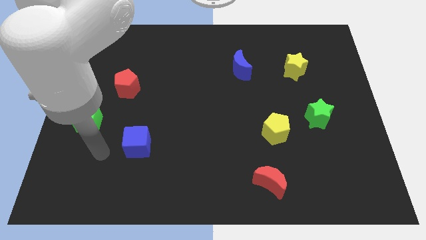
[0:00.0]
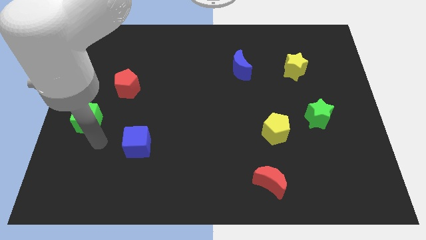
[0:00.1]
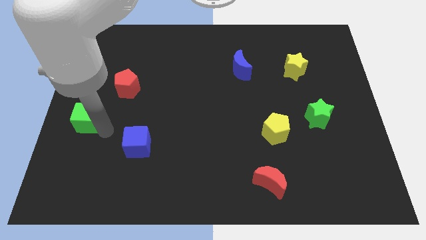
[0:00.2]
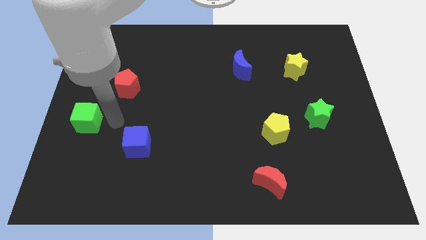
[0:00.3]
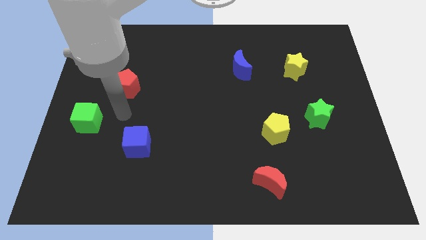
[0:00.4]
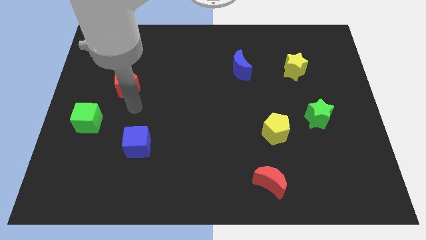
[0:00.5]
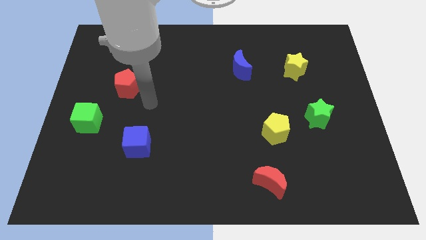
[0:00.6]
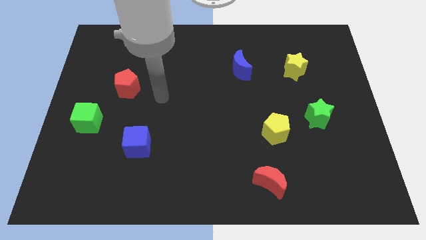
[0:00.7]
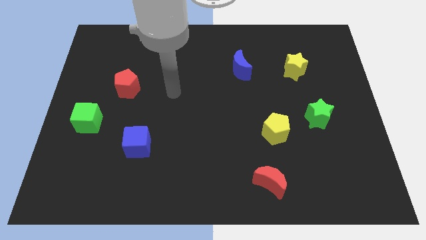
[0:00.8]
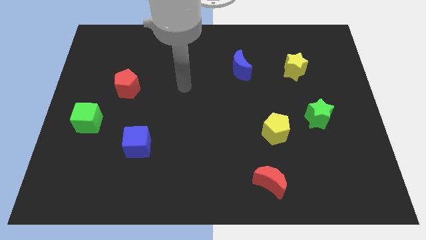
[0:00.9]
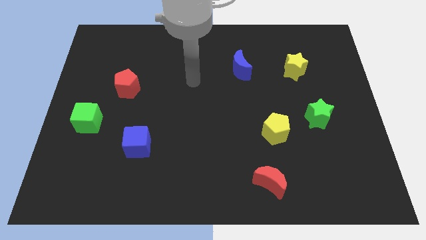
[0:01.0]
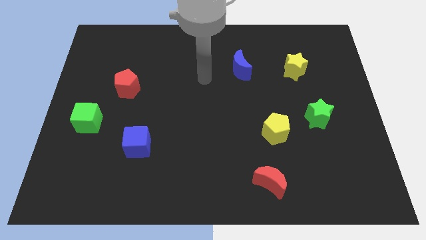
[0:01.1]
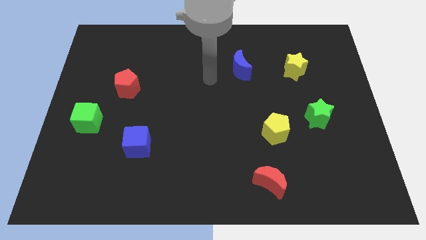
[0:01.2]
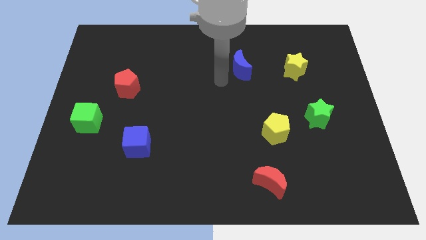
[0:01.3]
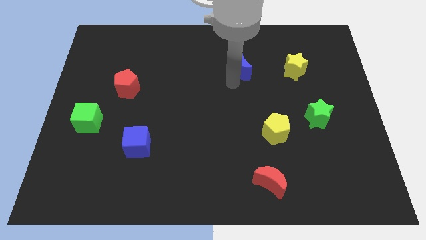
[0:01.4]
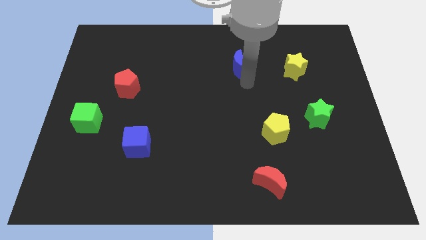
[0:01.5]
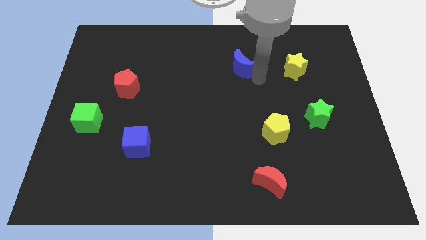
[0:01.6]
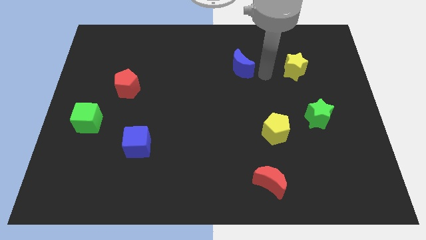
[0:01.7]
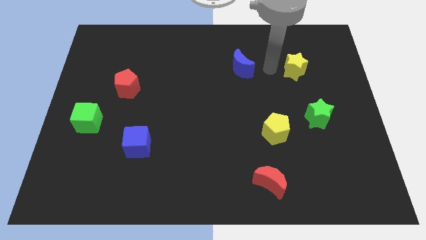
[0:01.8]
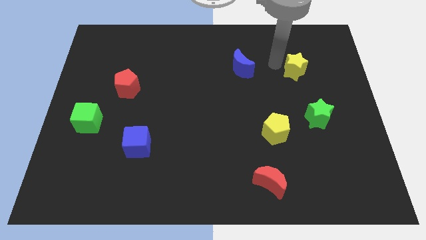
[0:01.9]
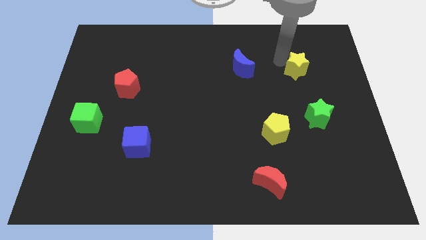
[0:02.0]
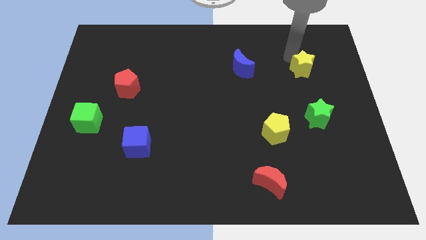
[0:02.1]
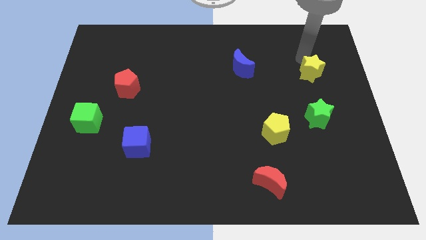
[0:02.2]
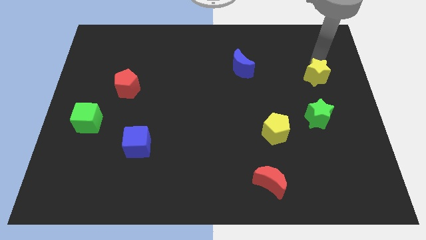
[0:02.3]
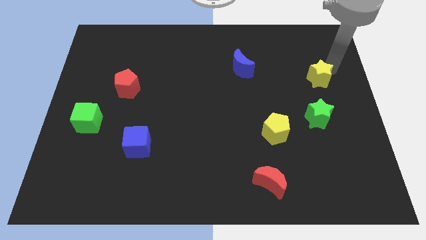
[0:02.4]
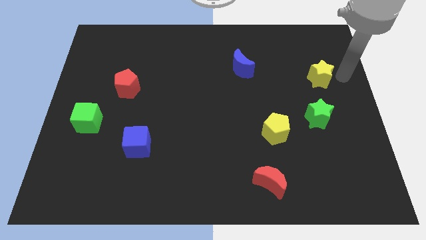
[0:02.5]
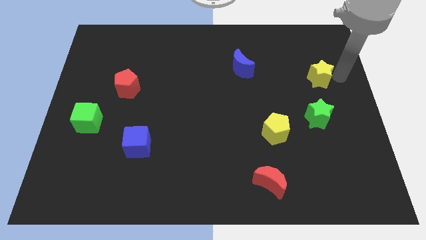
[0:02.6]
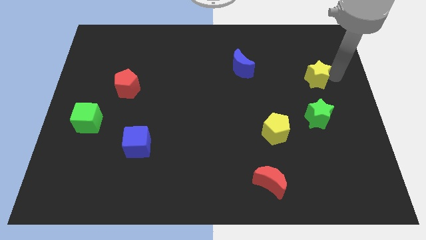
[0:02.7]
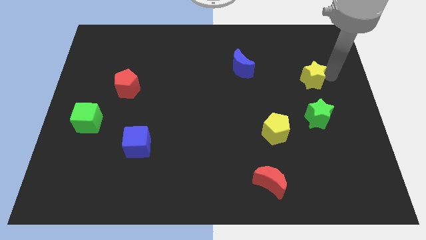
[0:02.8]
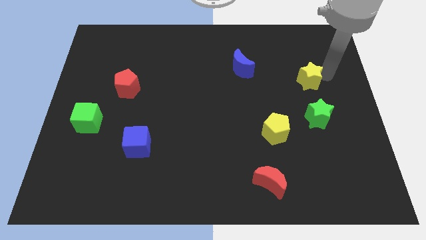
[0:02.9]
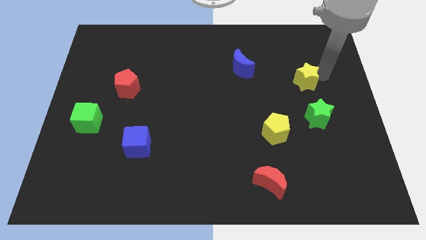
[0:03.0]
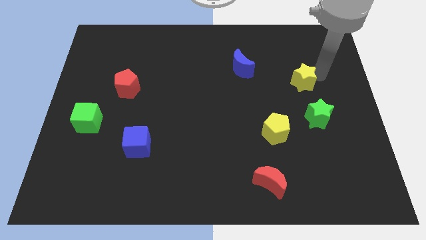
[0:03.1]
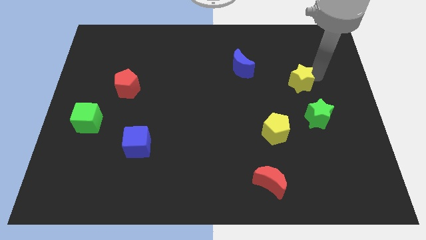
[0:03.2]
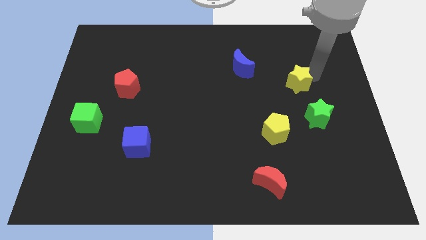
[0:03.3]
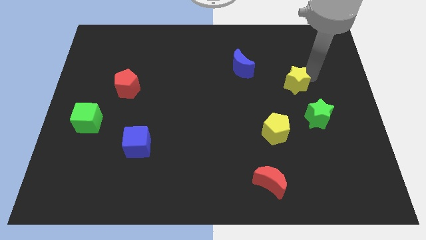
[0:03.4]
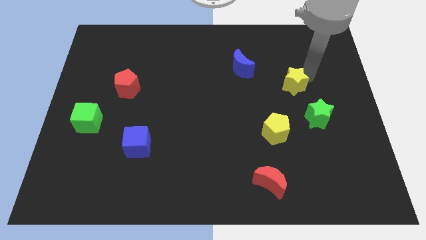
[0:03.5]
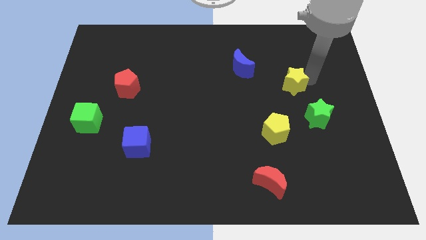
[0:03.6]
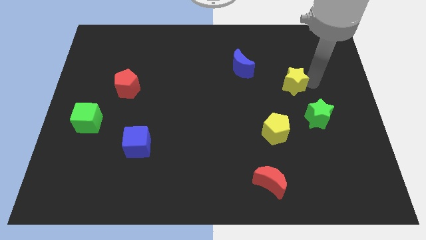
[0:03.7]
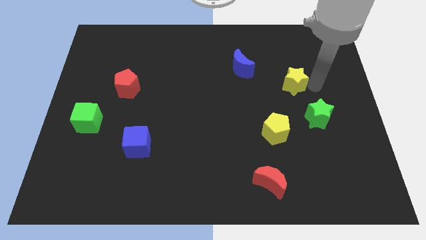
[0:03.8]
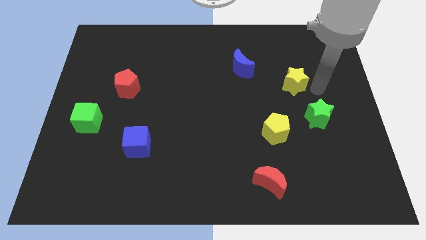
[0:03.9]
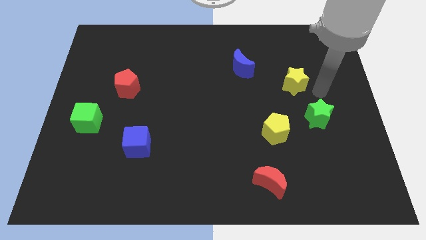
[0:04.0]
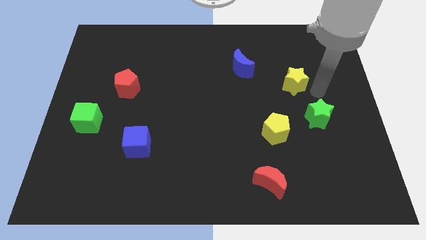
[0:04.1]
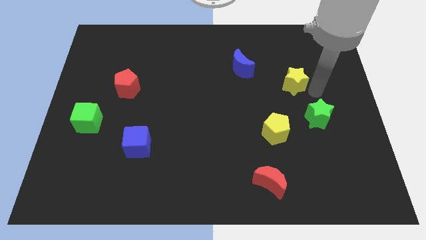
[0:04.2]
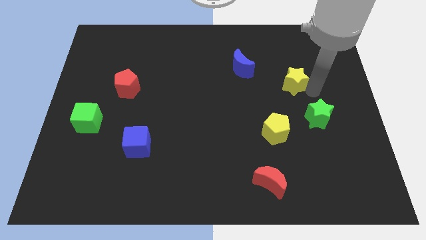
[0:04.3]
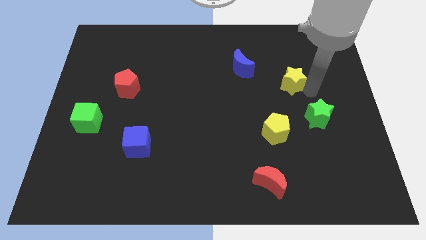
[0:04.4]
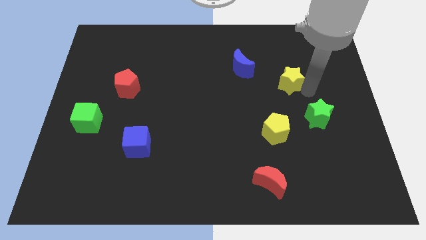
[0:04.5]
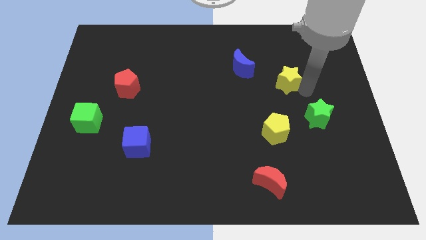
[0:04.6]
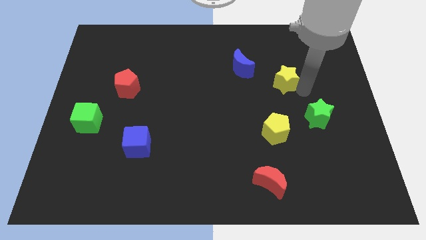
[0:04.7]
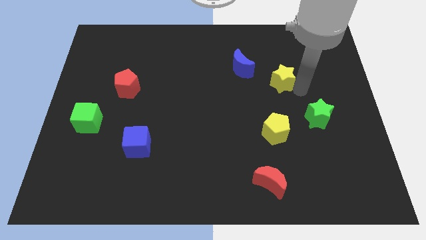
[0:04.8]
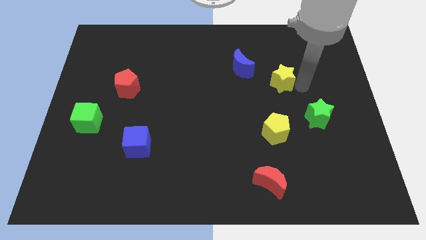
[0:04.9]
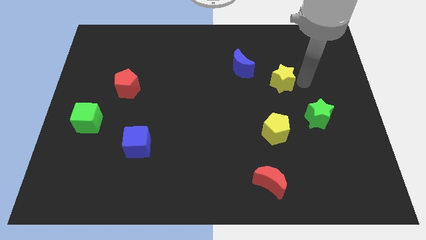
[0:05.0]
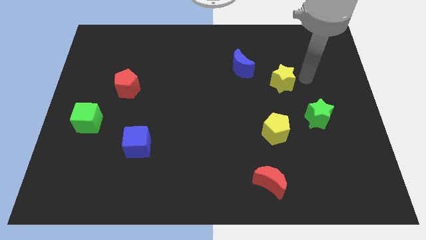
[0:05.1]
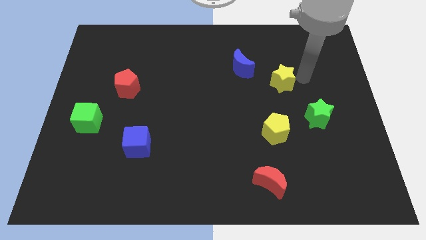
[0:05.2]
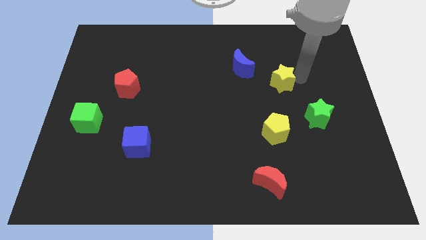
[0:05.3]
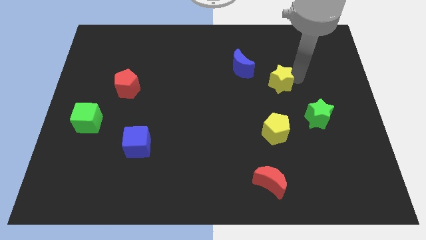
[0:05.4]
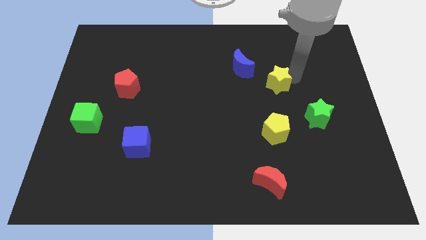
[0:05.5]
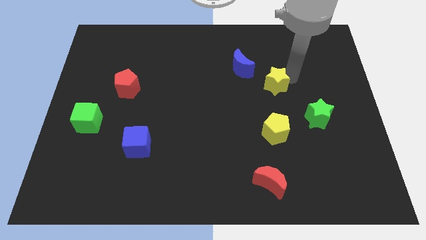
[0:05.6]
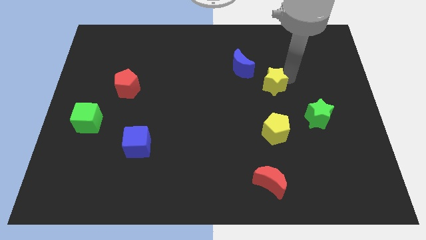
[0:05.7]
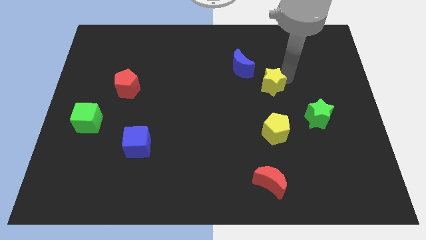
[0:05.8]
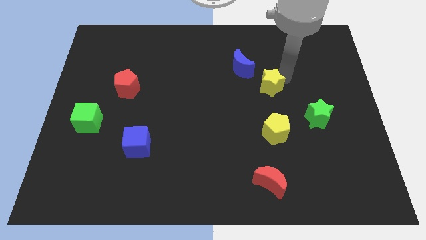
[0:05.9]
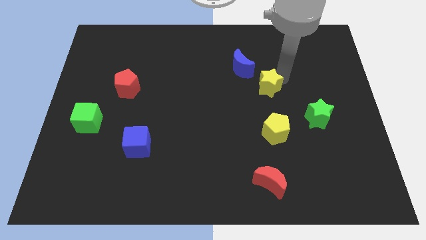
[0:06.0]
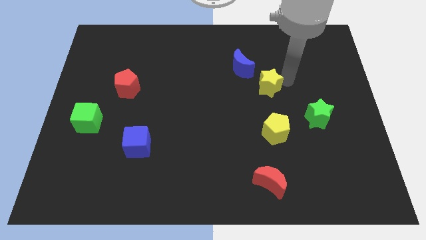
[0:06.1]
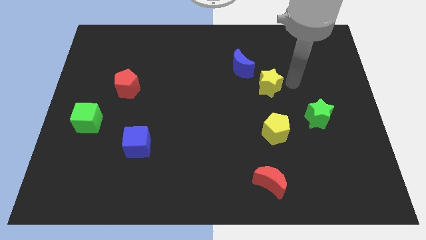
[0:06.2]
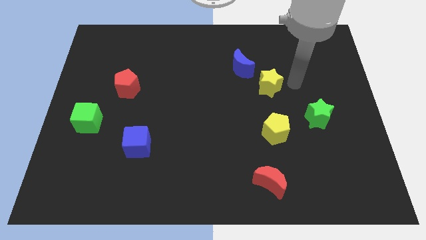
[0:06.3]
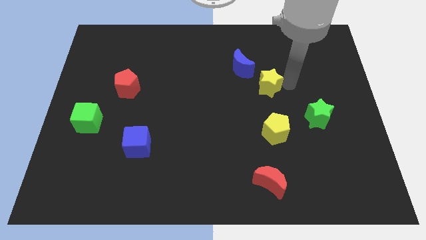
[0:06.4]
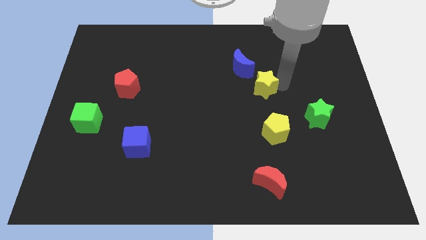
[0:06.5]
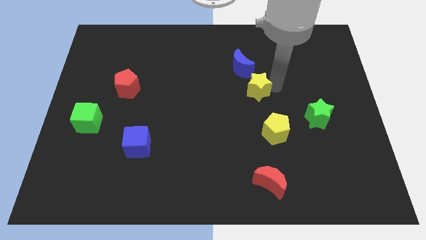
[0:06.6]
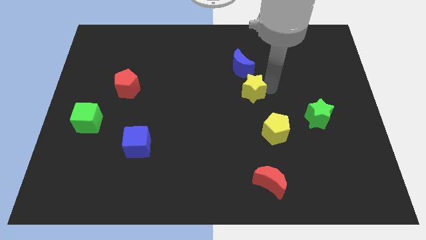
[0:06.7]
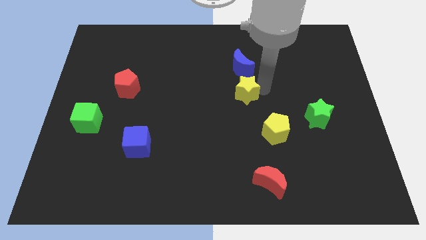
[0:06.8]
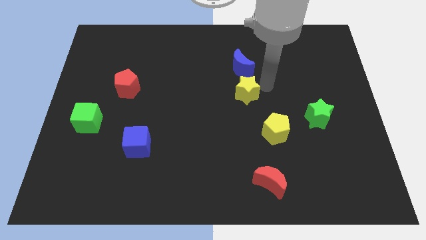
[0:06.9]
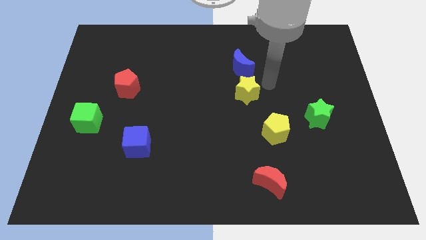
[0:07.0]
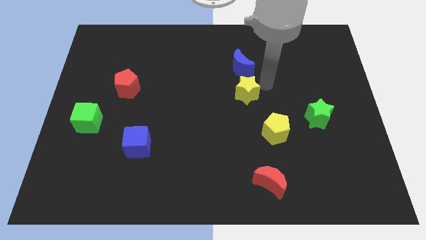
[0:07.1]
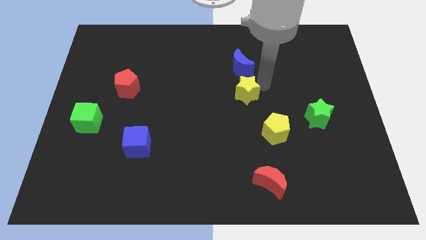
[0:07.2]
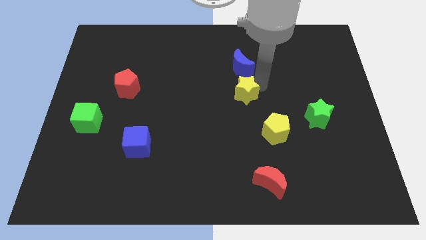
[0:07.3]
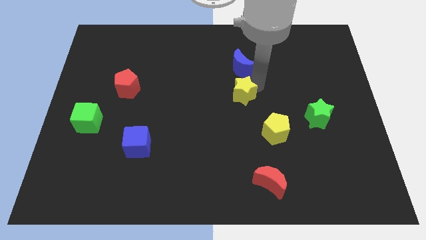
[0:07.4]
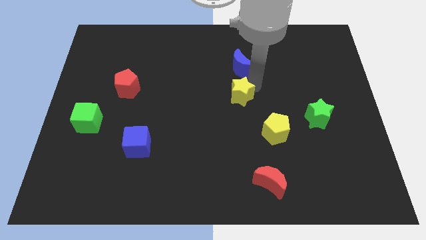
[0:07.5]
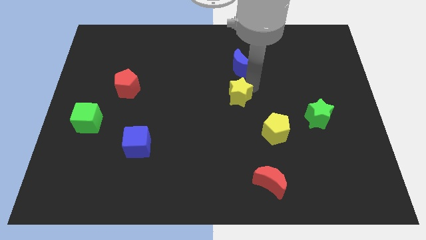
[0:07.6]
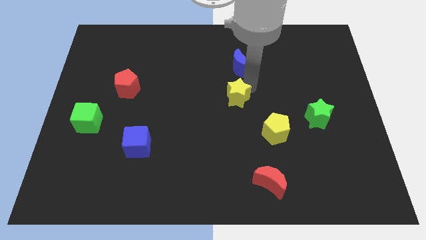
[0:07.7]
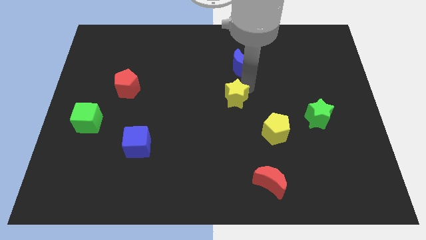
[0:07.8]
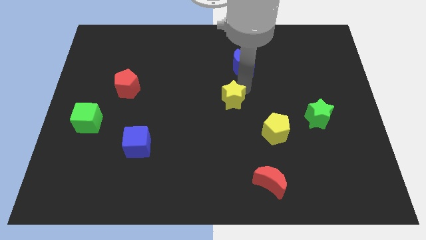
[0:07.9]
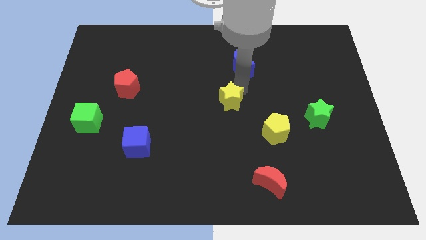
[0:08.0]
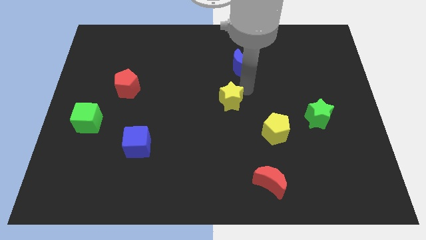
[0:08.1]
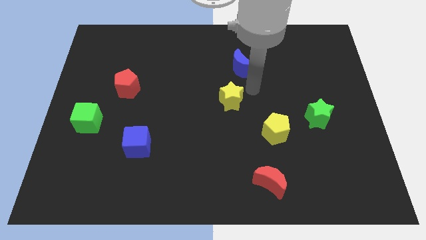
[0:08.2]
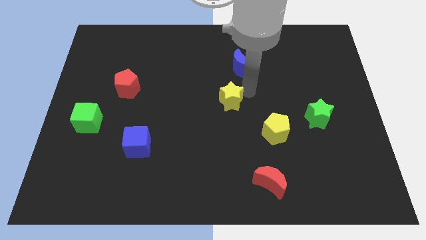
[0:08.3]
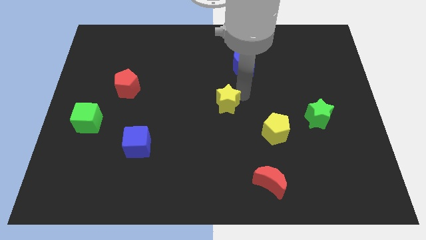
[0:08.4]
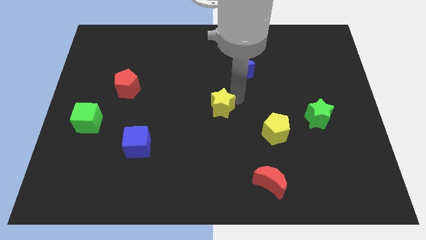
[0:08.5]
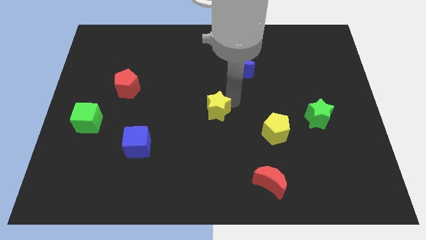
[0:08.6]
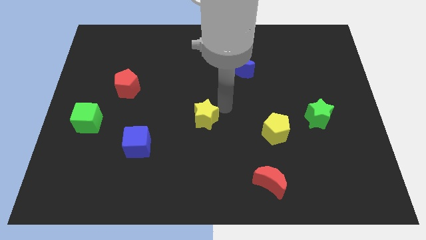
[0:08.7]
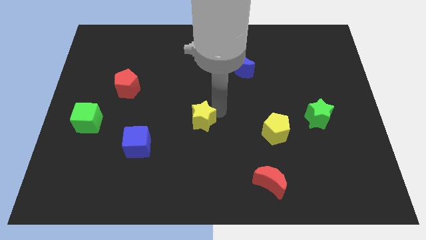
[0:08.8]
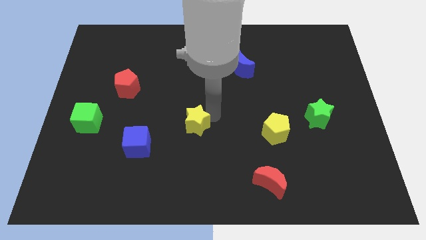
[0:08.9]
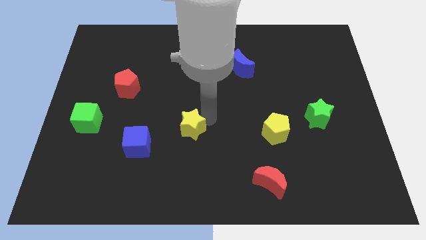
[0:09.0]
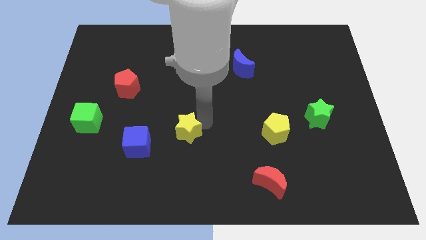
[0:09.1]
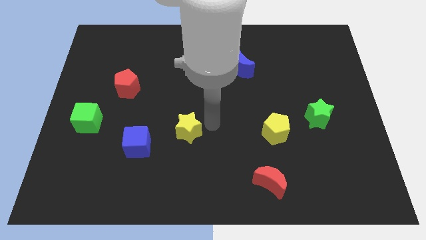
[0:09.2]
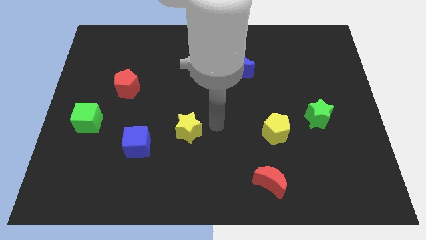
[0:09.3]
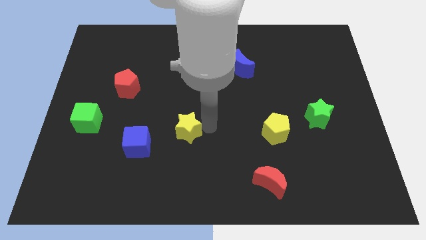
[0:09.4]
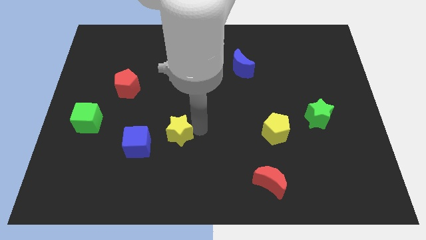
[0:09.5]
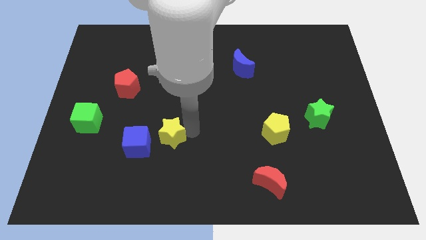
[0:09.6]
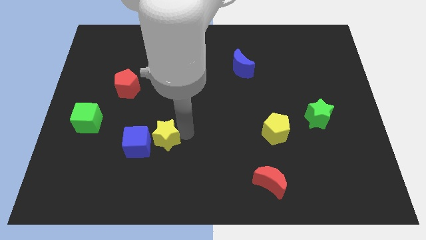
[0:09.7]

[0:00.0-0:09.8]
push the yellow star to the blue cube
